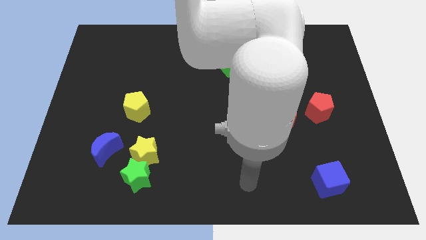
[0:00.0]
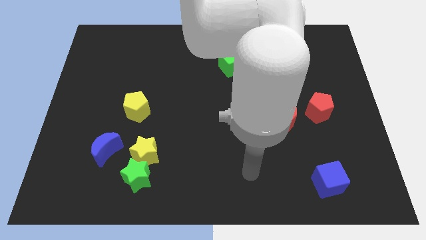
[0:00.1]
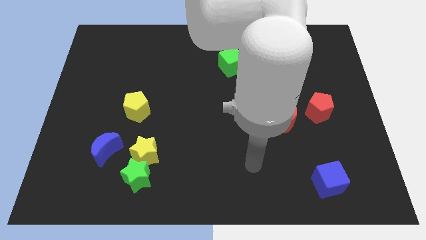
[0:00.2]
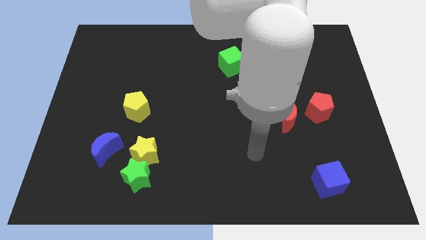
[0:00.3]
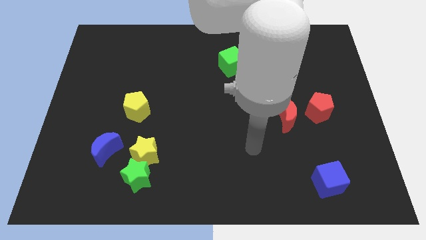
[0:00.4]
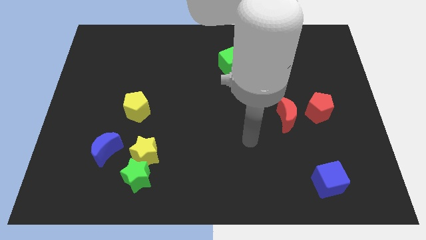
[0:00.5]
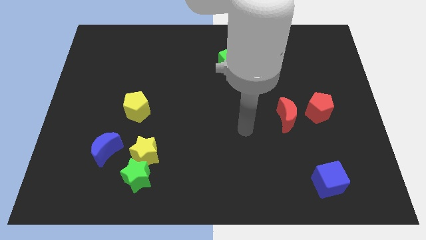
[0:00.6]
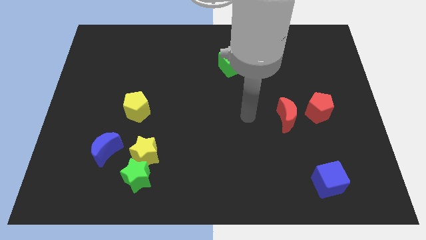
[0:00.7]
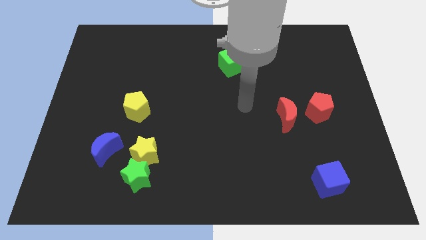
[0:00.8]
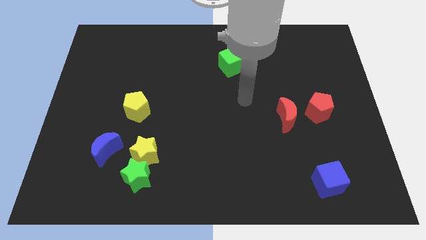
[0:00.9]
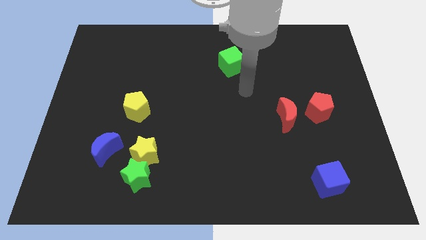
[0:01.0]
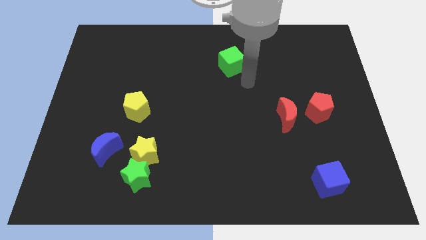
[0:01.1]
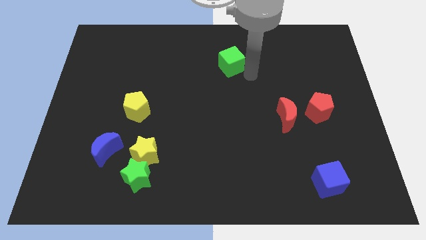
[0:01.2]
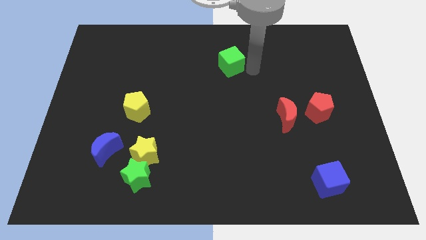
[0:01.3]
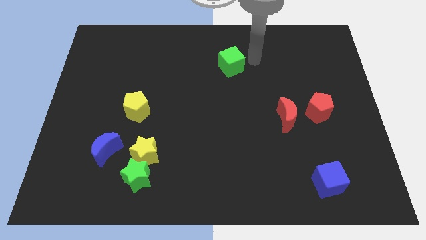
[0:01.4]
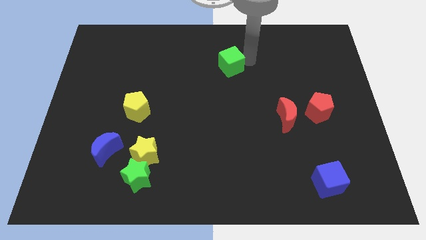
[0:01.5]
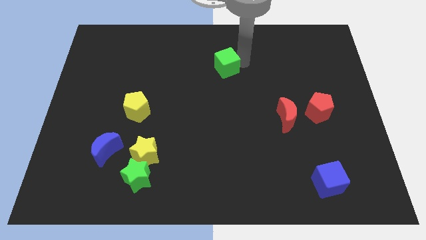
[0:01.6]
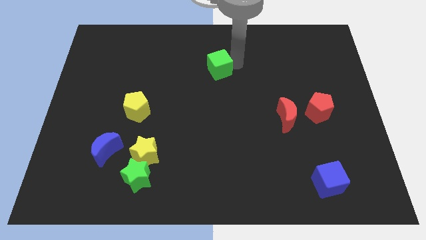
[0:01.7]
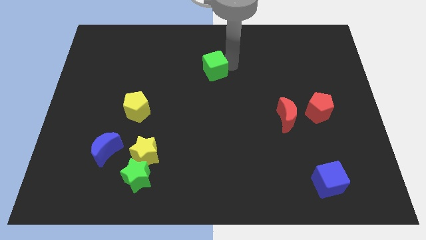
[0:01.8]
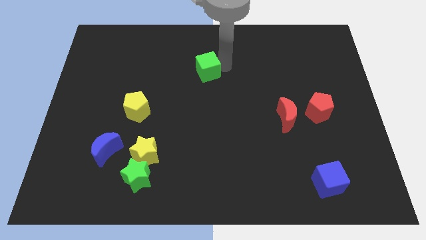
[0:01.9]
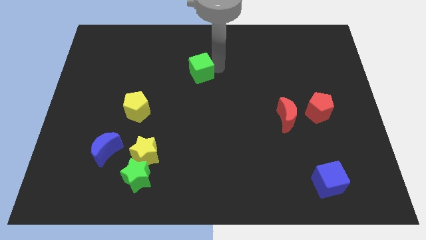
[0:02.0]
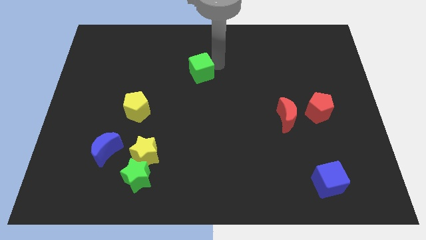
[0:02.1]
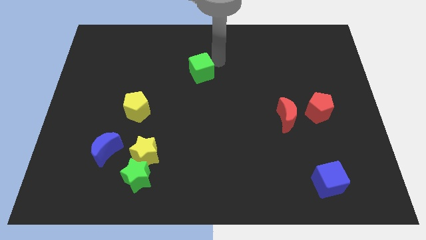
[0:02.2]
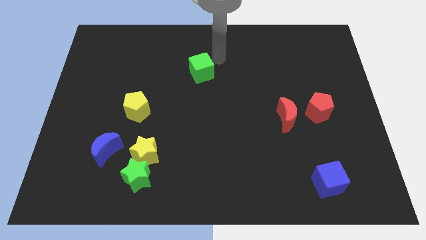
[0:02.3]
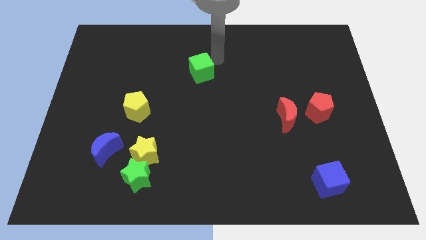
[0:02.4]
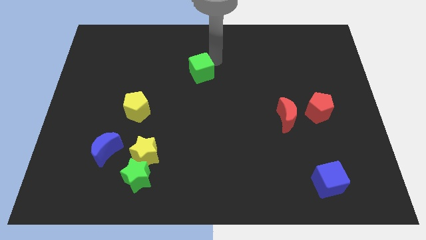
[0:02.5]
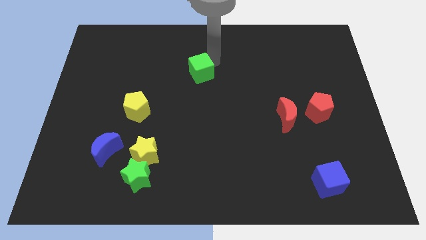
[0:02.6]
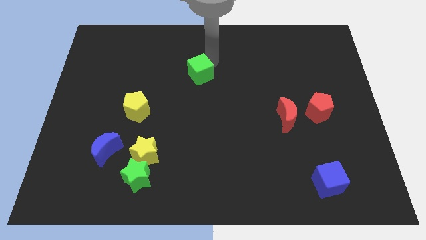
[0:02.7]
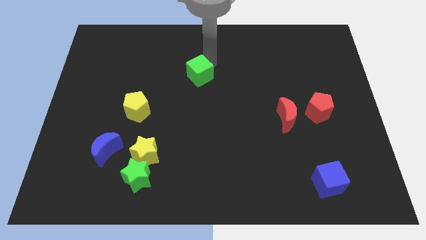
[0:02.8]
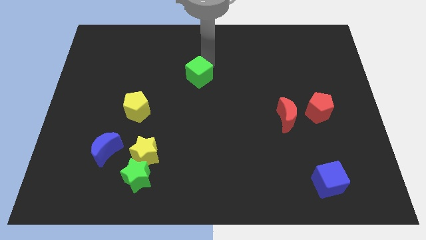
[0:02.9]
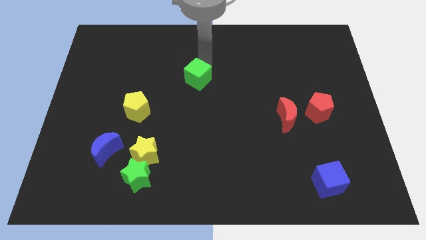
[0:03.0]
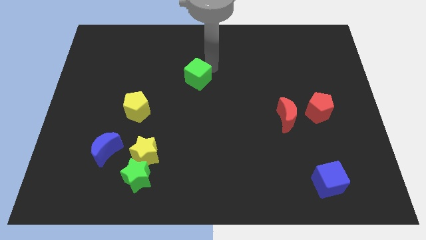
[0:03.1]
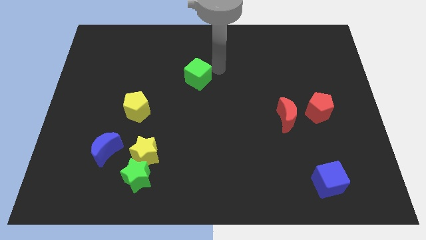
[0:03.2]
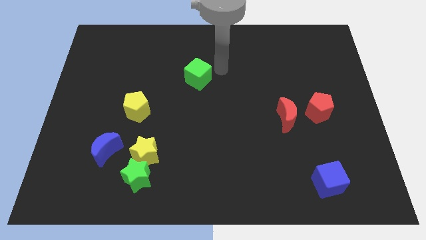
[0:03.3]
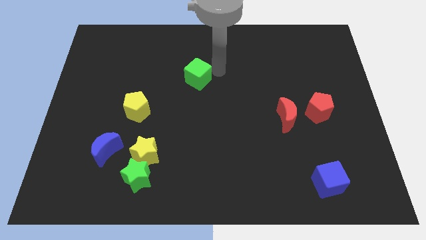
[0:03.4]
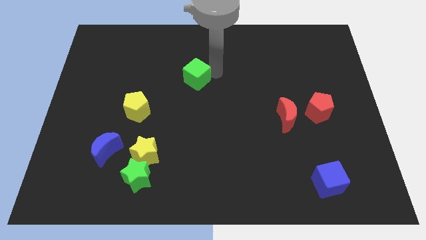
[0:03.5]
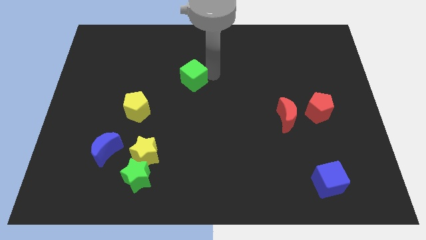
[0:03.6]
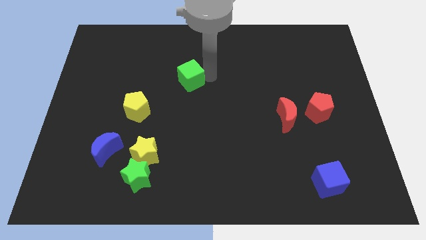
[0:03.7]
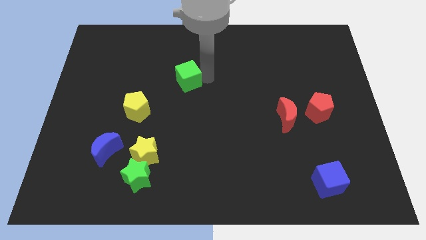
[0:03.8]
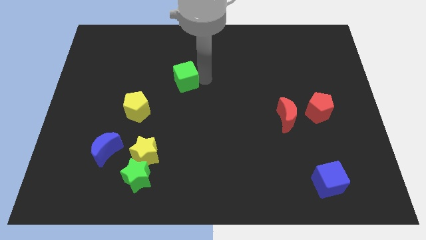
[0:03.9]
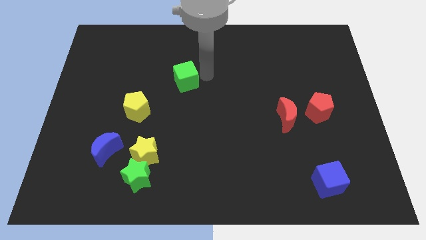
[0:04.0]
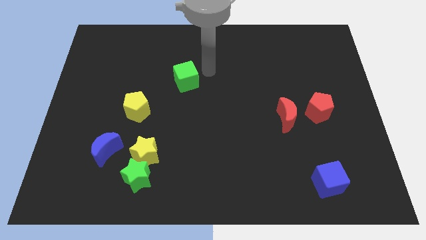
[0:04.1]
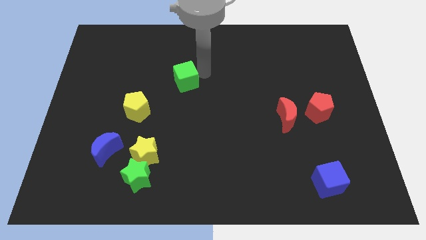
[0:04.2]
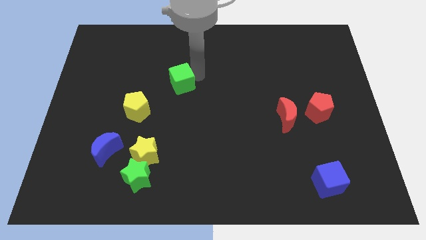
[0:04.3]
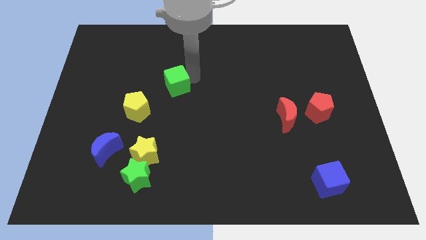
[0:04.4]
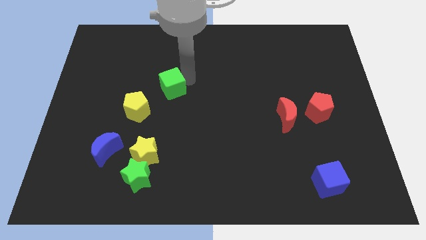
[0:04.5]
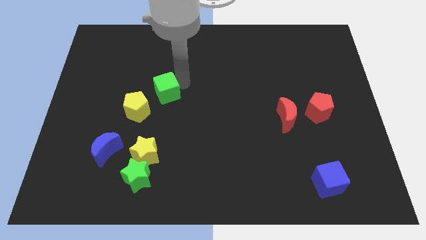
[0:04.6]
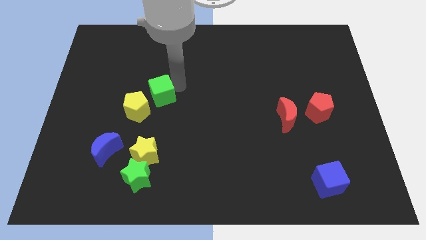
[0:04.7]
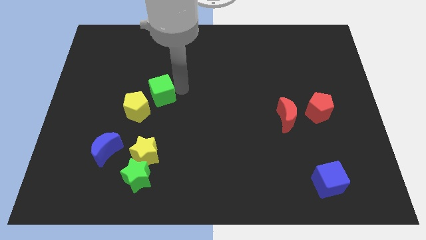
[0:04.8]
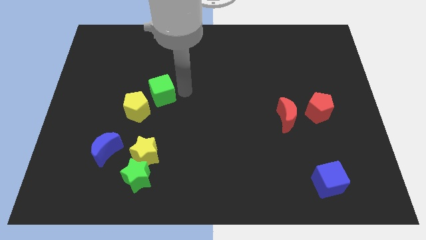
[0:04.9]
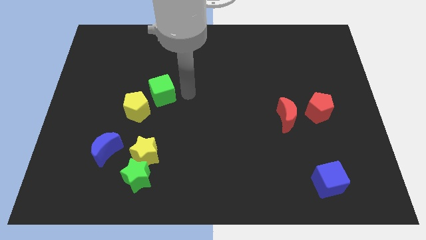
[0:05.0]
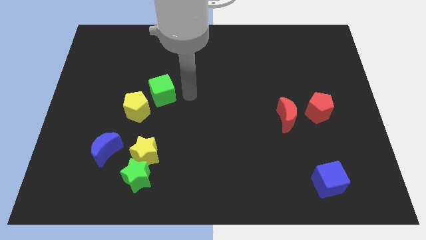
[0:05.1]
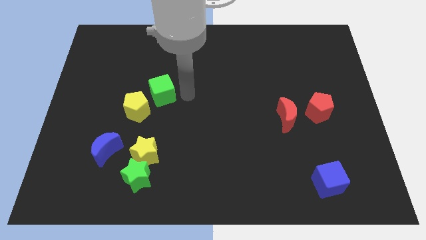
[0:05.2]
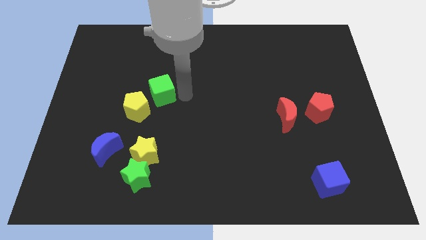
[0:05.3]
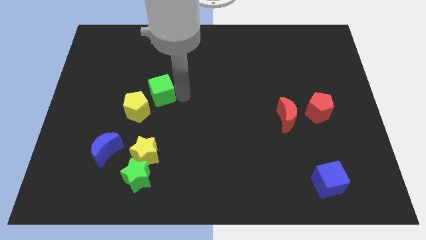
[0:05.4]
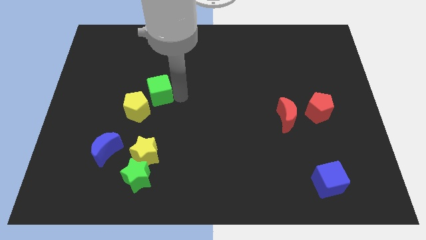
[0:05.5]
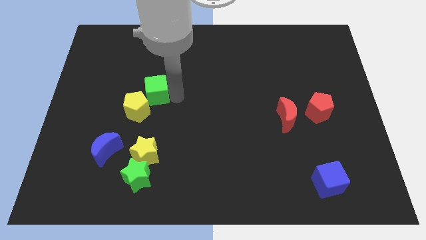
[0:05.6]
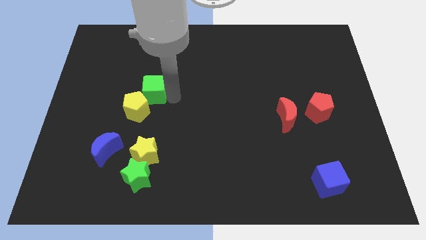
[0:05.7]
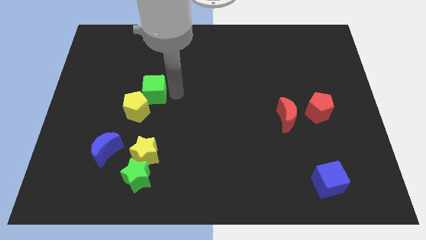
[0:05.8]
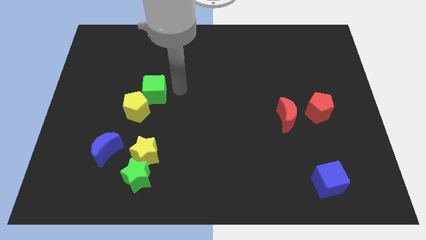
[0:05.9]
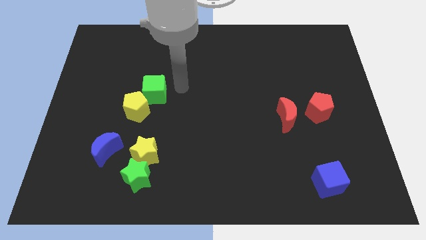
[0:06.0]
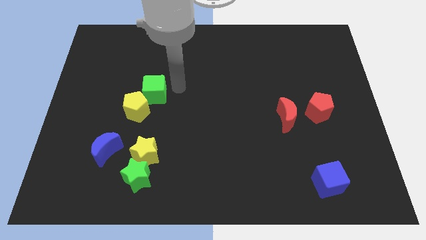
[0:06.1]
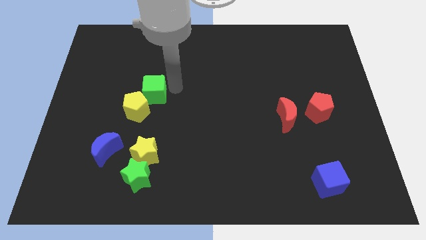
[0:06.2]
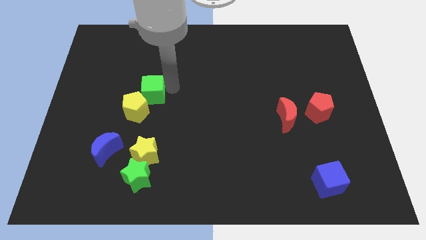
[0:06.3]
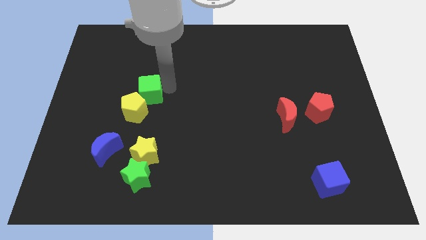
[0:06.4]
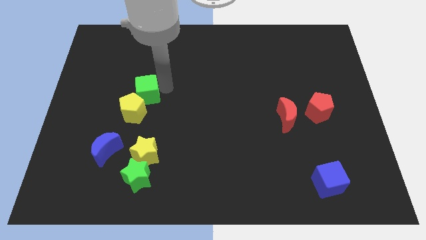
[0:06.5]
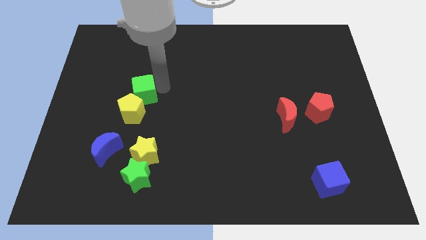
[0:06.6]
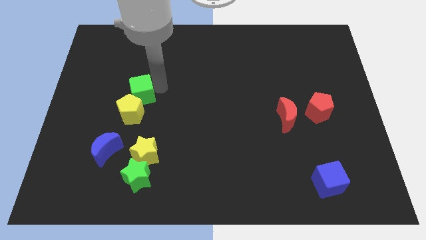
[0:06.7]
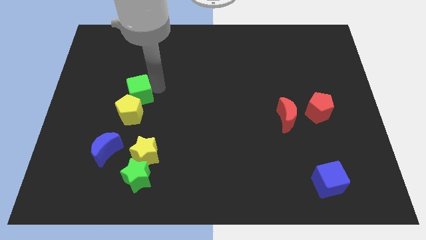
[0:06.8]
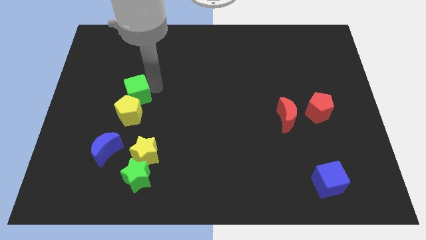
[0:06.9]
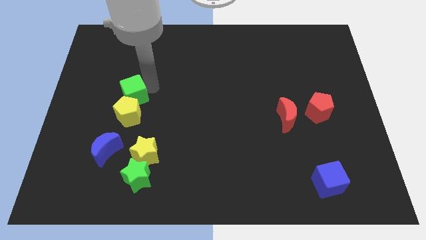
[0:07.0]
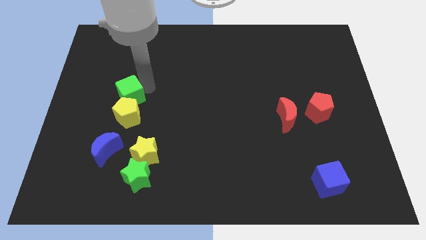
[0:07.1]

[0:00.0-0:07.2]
move the green cube down and then left

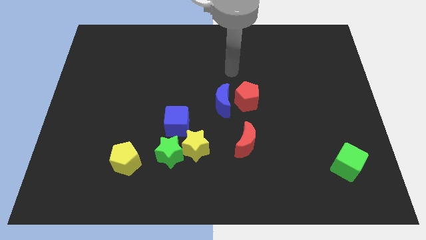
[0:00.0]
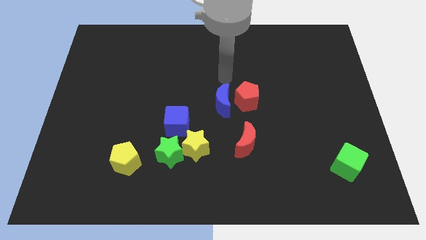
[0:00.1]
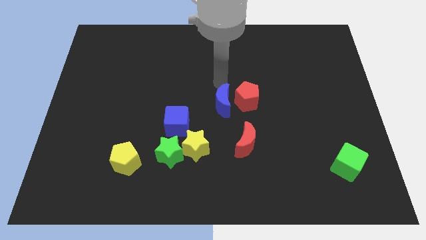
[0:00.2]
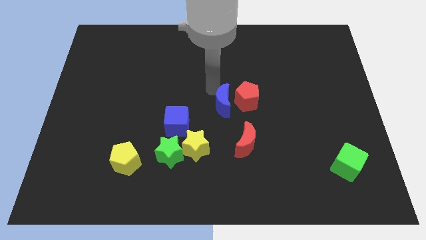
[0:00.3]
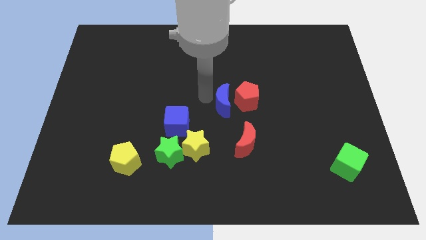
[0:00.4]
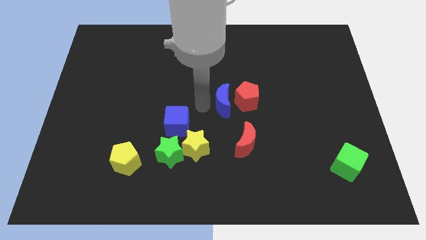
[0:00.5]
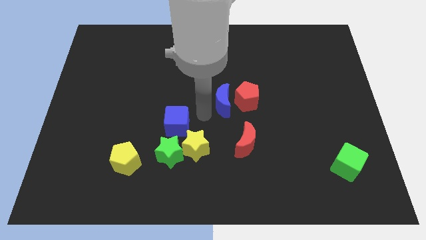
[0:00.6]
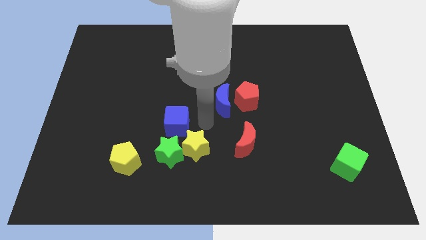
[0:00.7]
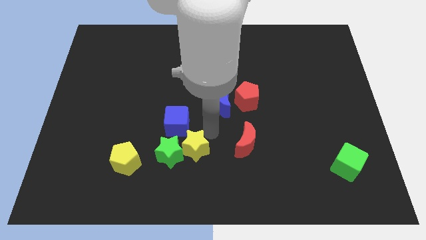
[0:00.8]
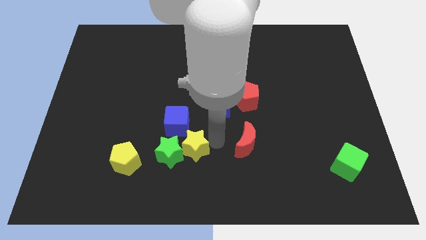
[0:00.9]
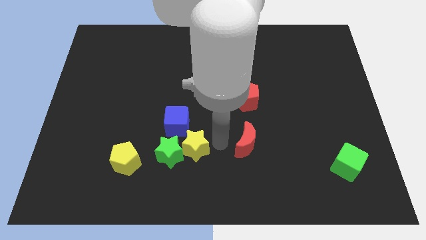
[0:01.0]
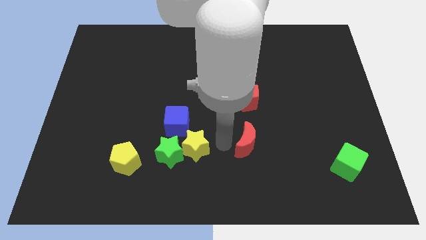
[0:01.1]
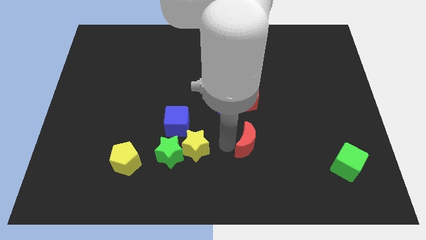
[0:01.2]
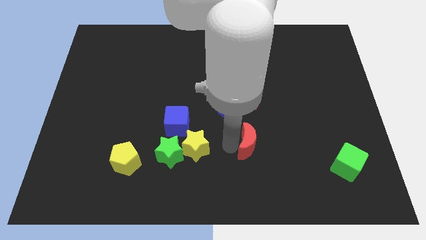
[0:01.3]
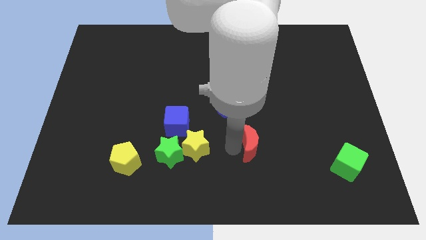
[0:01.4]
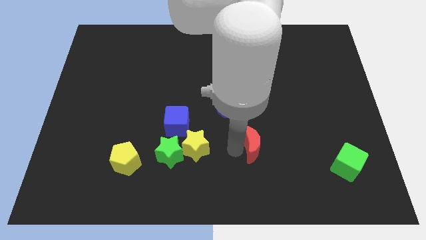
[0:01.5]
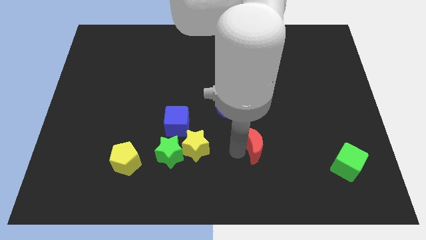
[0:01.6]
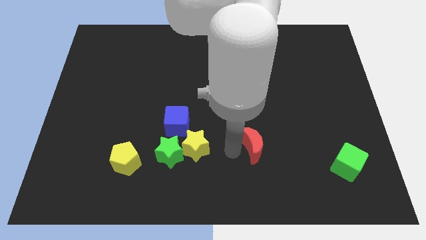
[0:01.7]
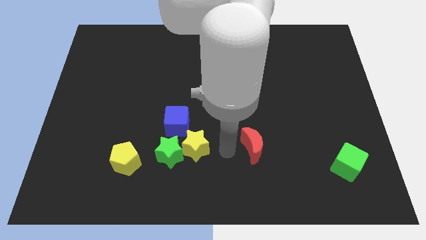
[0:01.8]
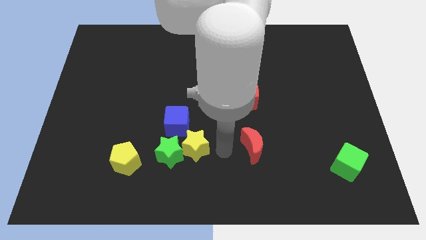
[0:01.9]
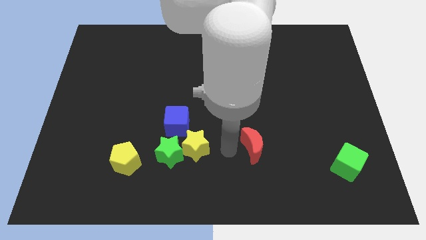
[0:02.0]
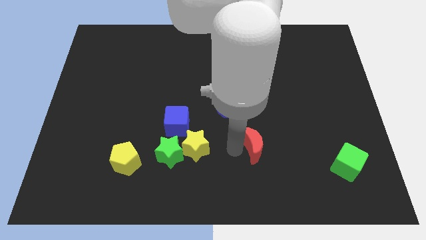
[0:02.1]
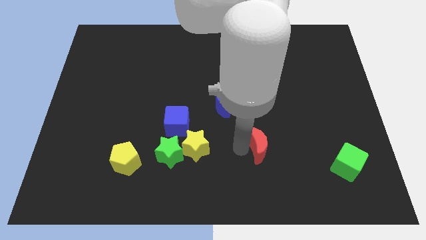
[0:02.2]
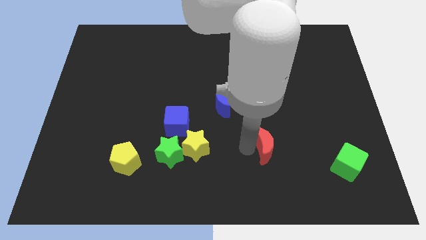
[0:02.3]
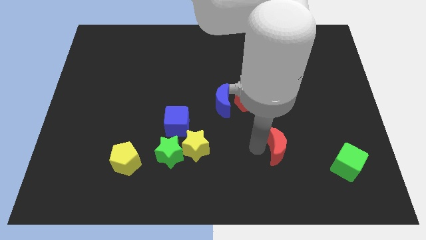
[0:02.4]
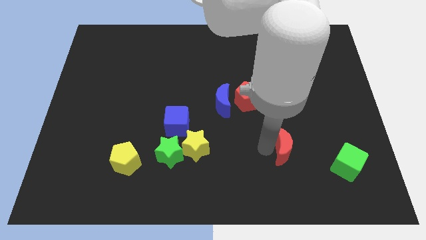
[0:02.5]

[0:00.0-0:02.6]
move the red moon somewhat right
